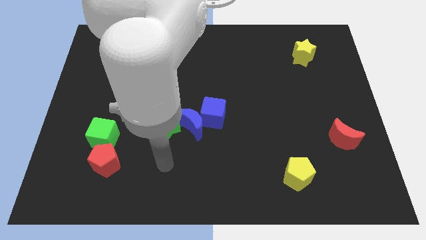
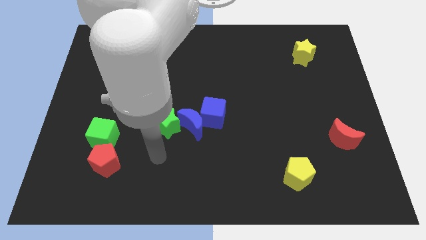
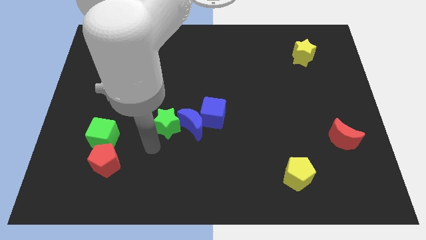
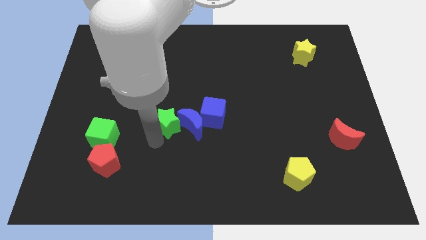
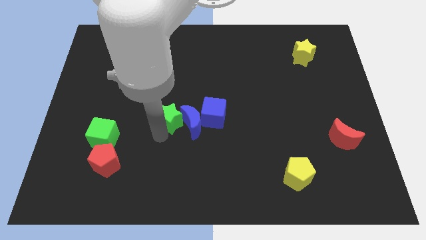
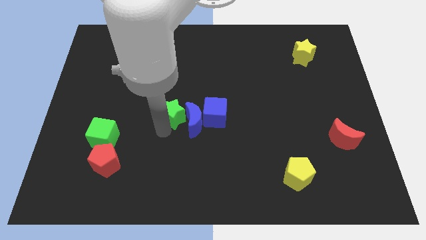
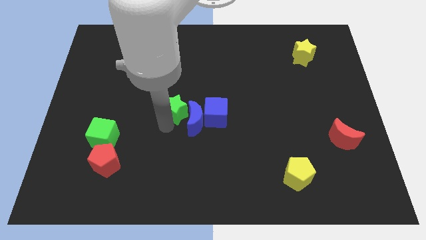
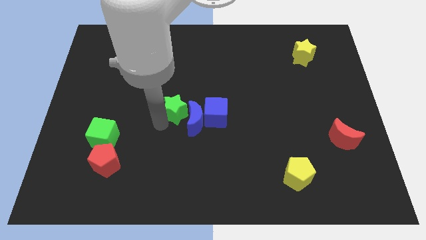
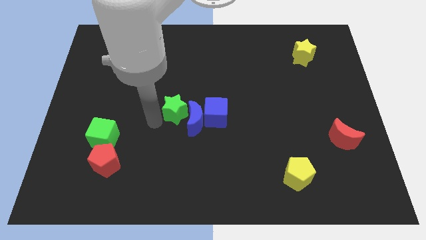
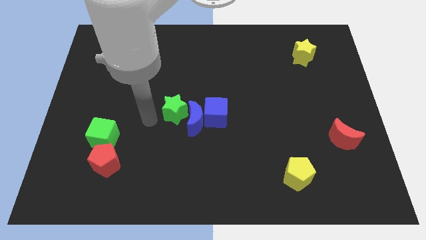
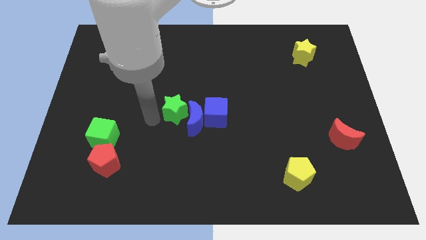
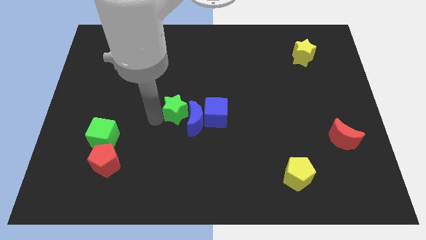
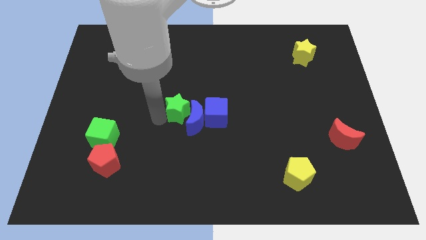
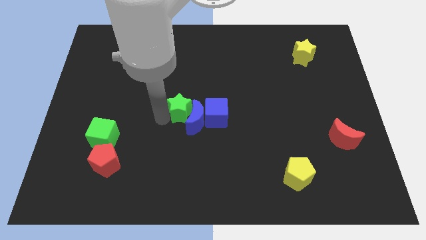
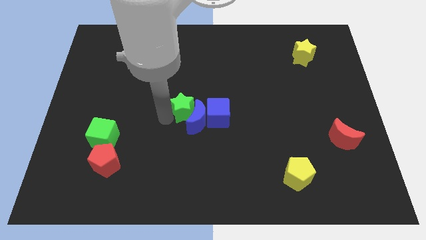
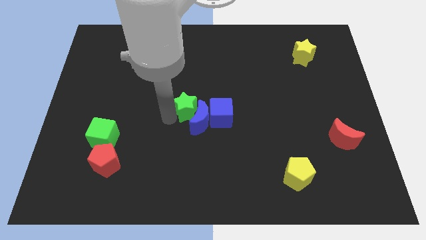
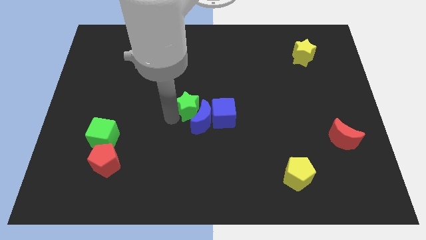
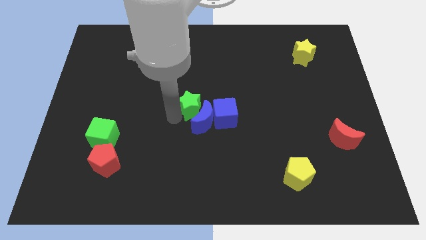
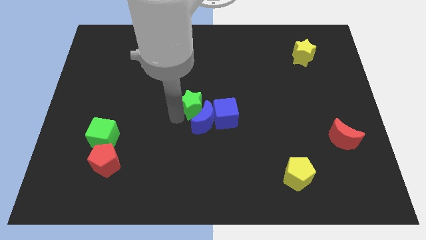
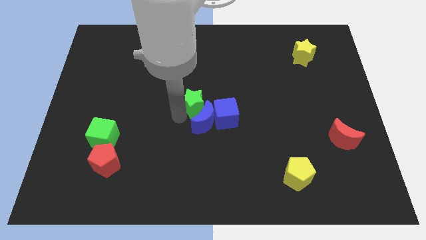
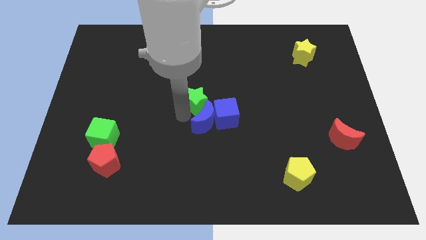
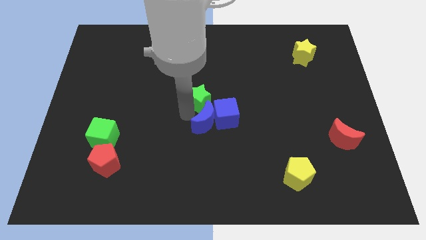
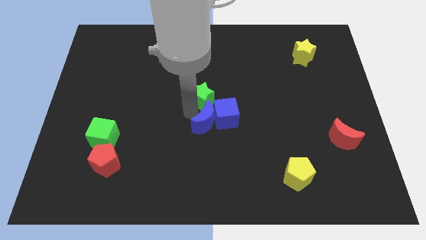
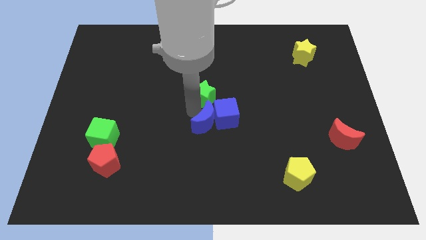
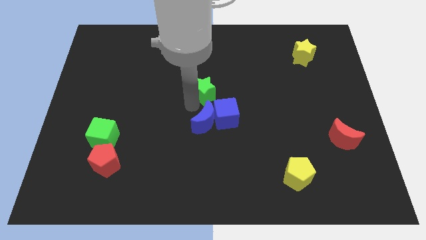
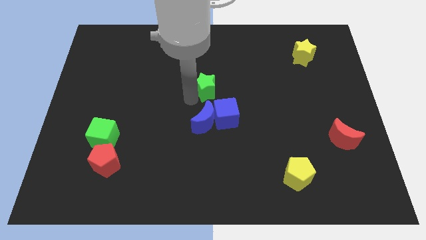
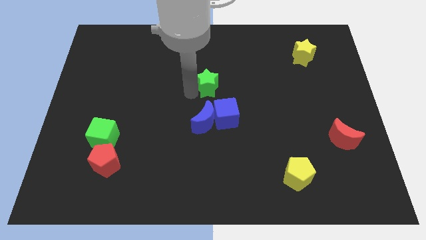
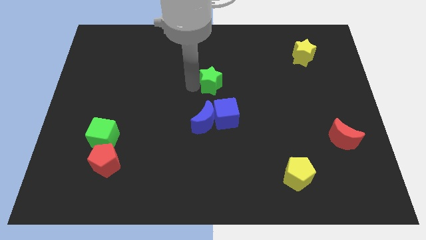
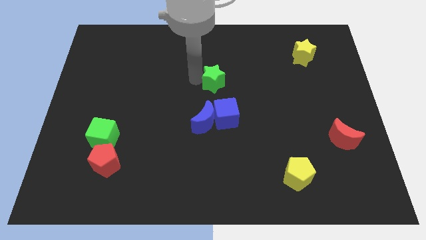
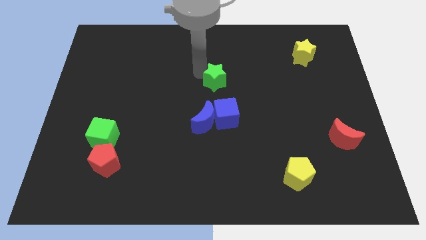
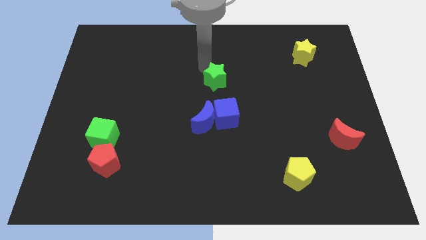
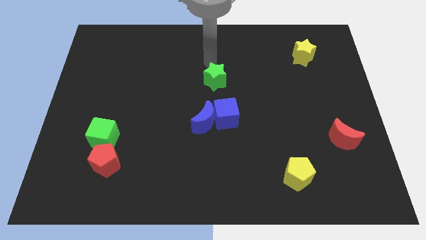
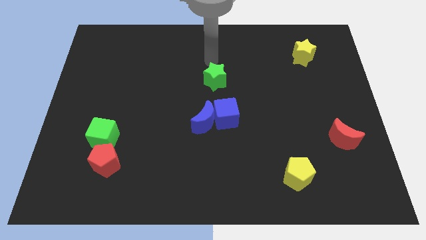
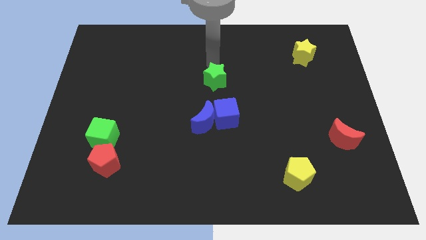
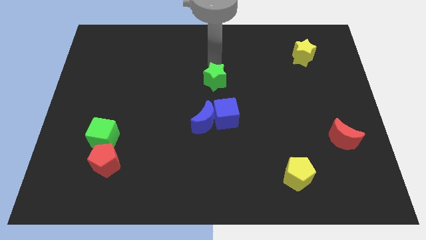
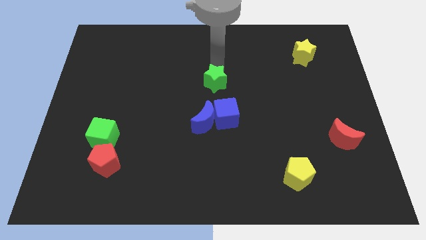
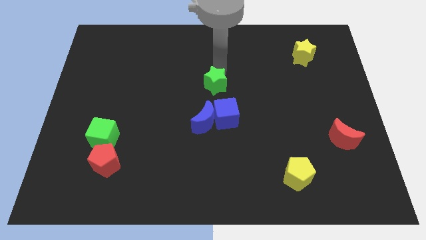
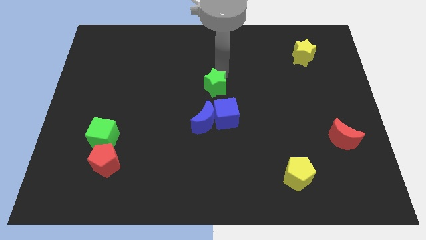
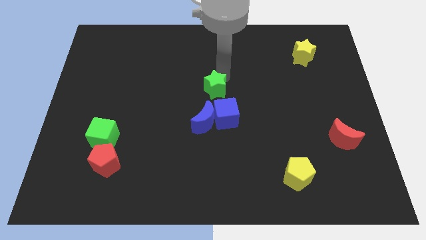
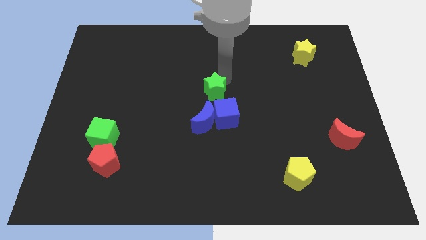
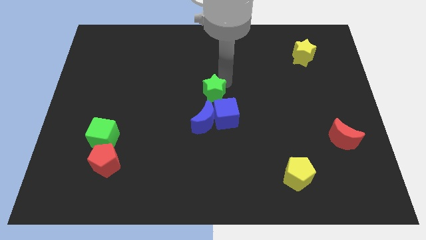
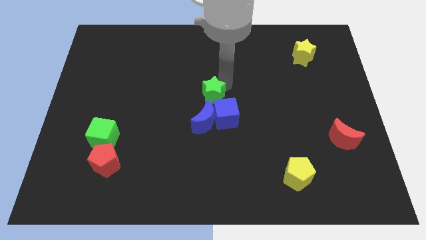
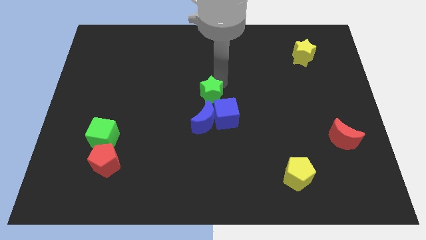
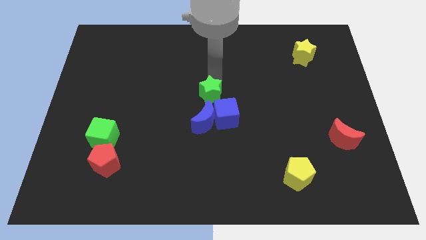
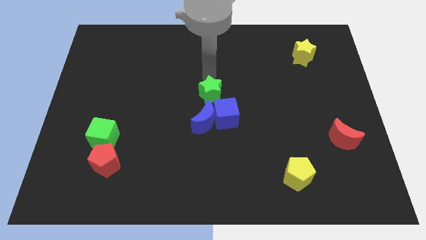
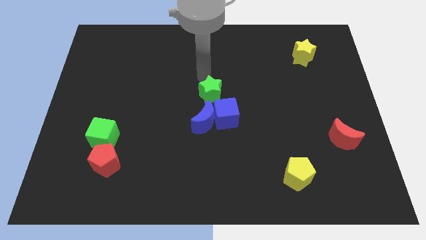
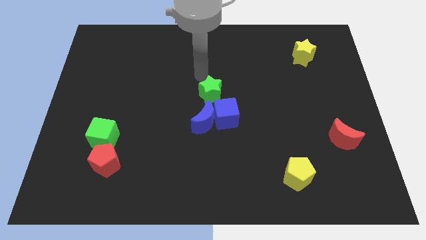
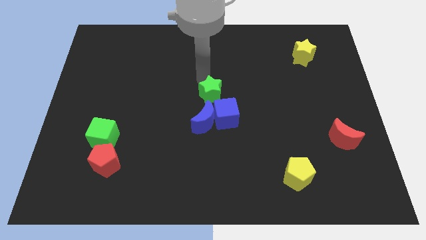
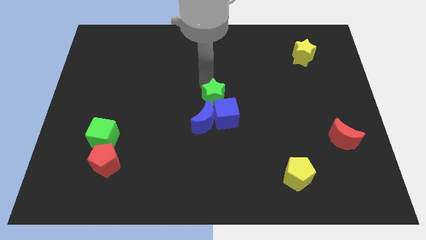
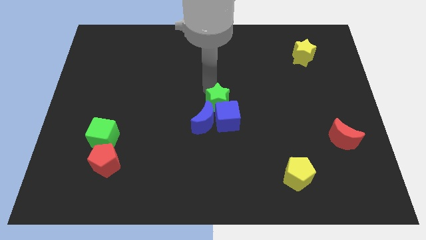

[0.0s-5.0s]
move the green star next to the blue cube

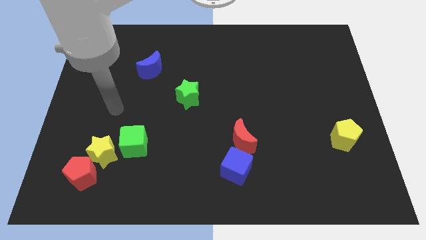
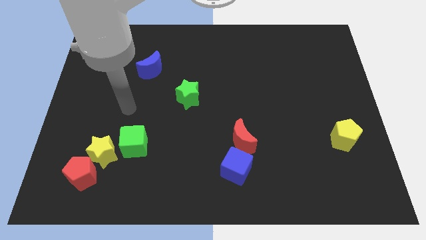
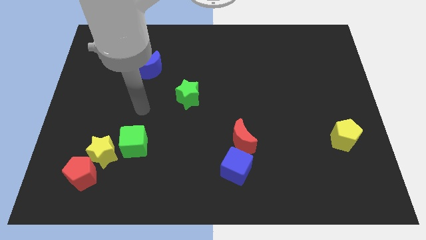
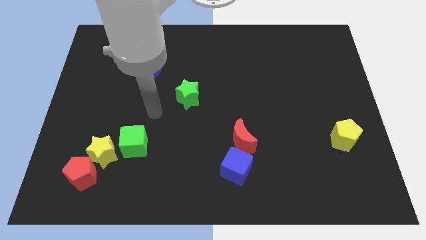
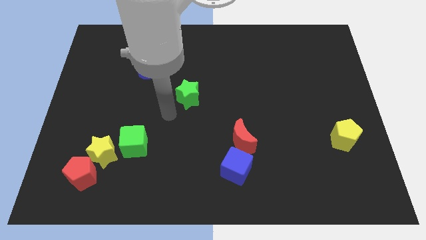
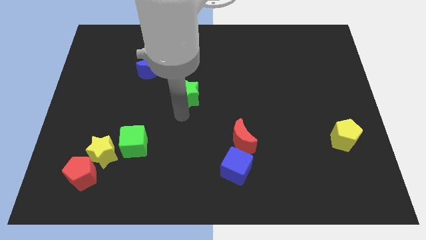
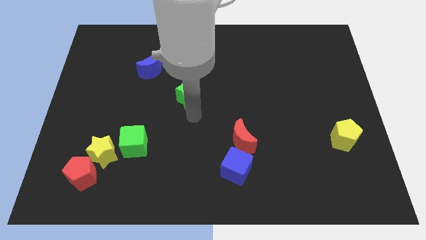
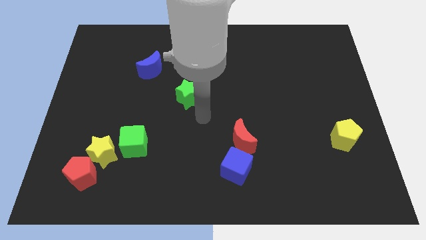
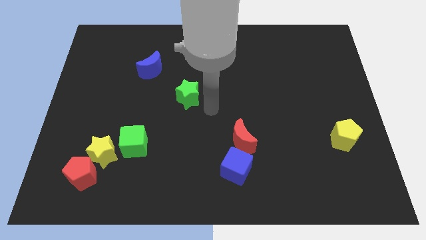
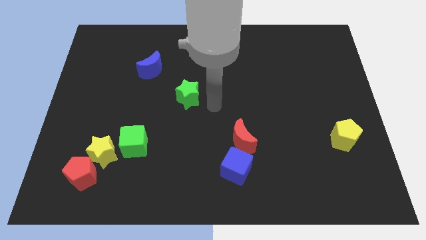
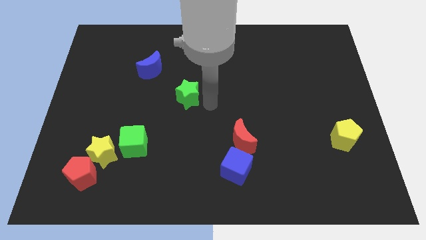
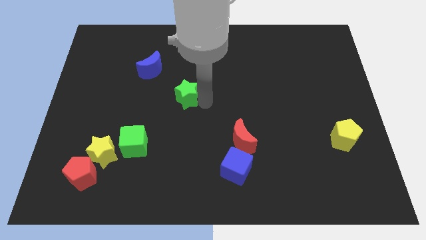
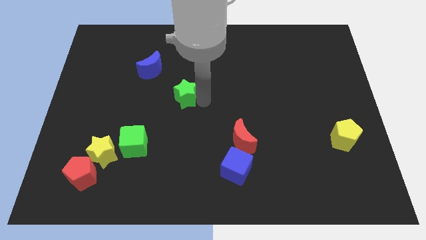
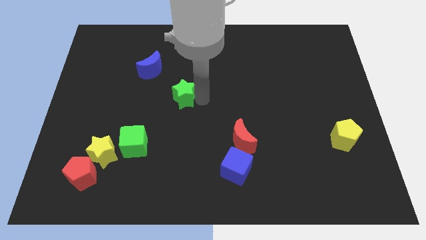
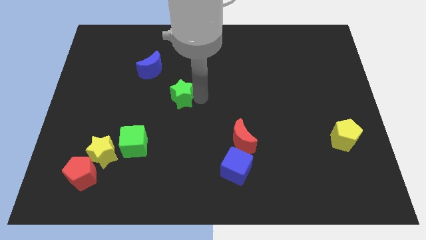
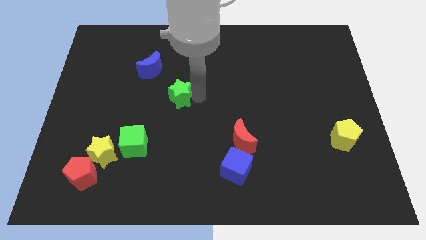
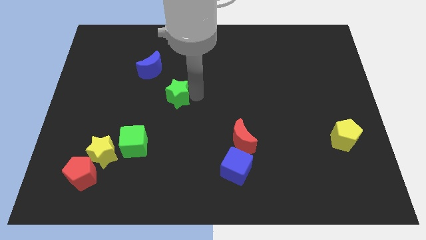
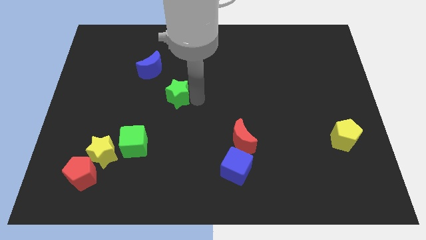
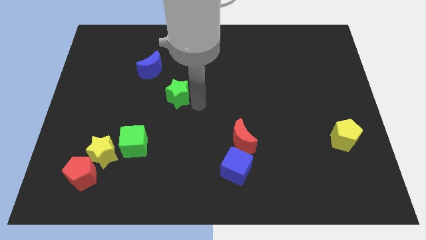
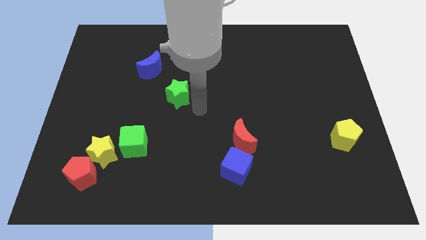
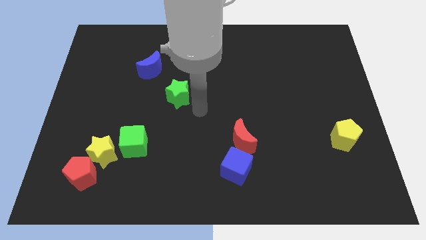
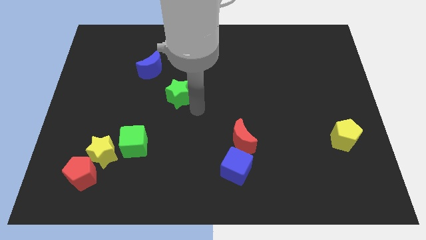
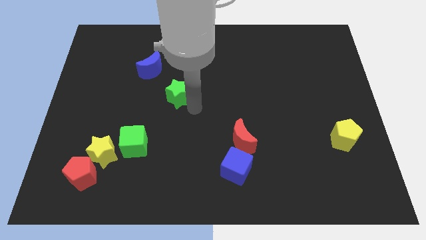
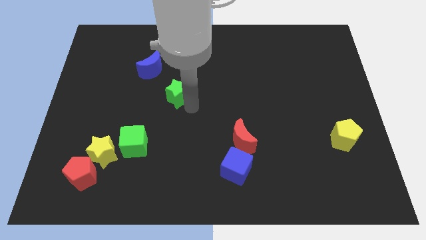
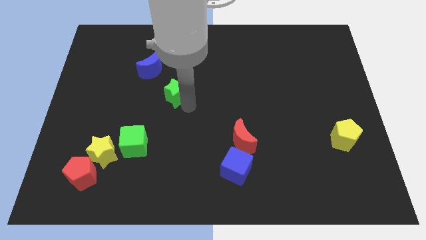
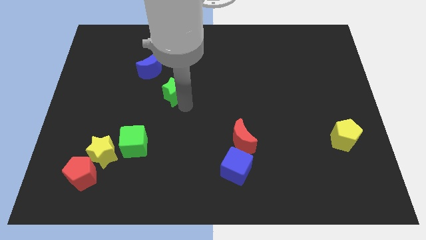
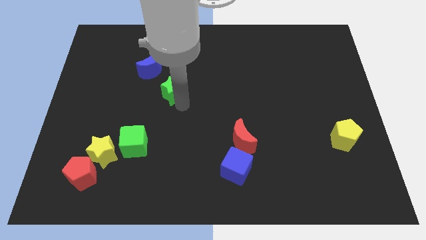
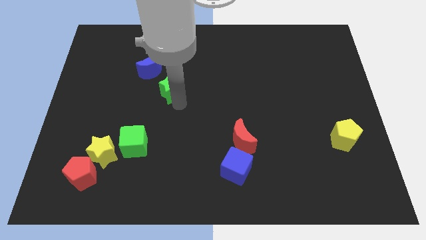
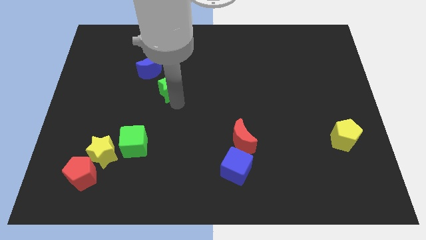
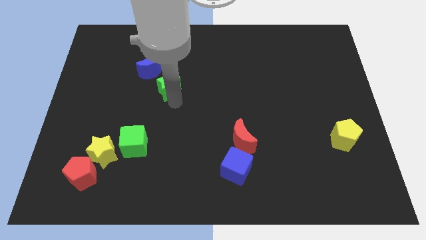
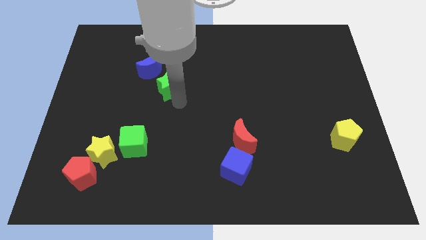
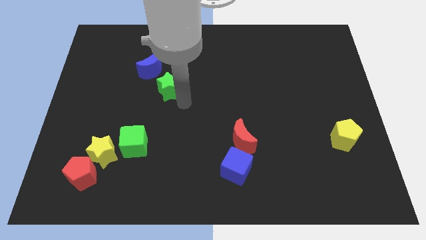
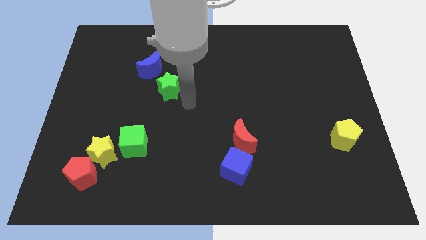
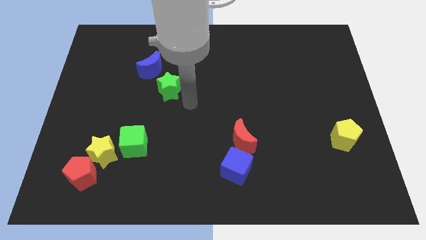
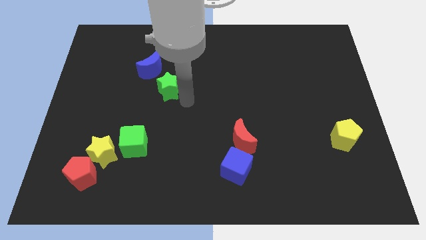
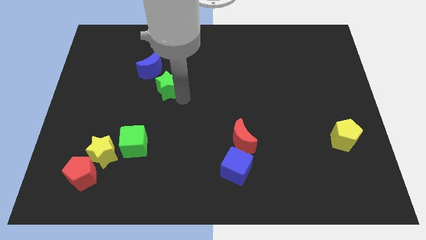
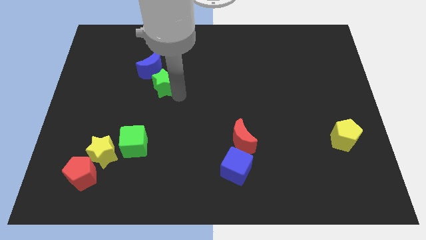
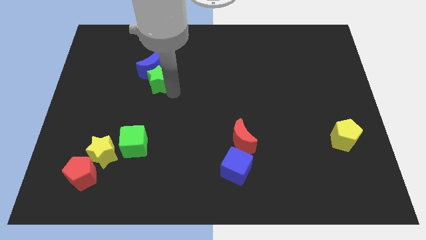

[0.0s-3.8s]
move the green star close to the blue moon
